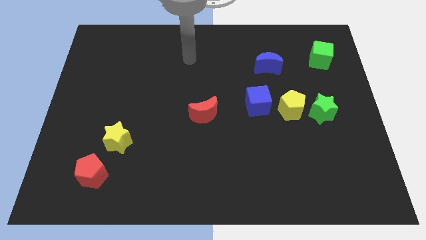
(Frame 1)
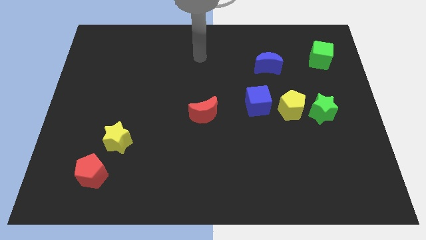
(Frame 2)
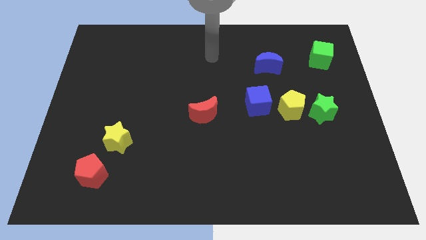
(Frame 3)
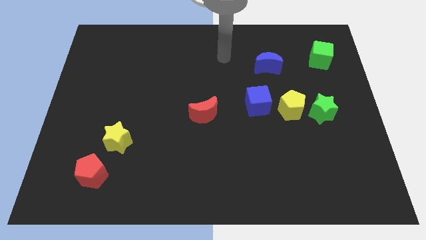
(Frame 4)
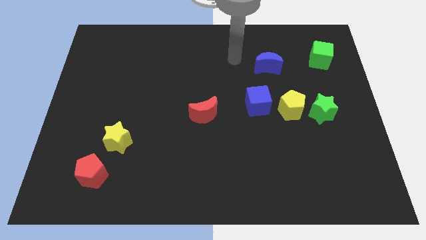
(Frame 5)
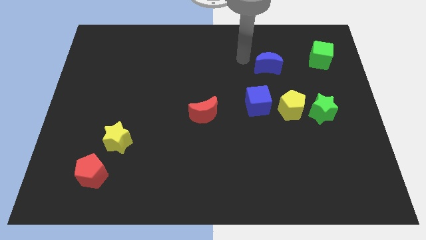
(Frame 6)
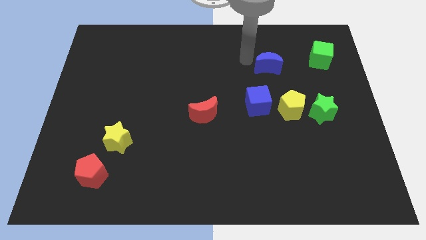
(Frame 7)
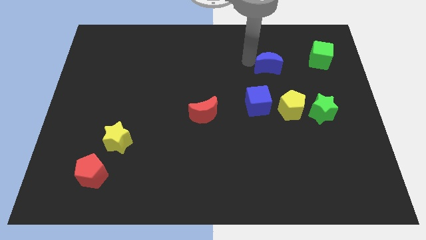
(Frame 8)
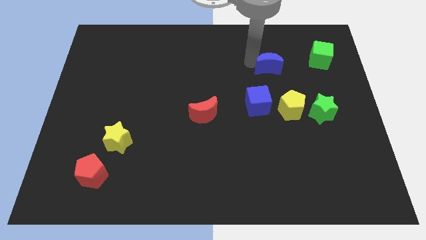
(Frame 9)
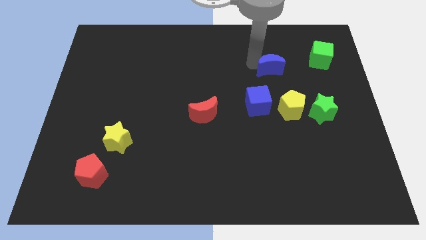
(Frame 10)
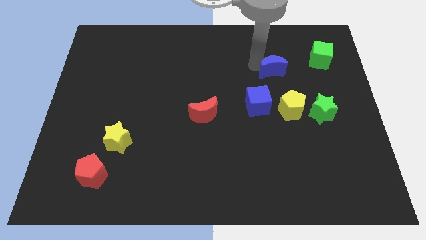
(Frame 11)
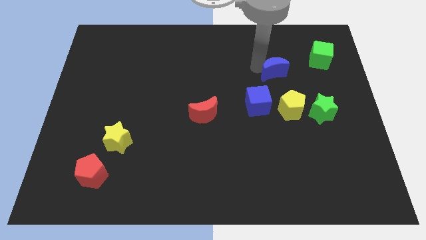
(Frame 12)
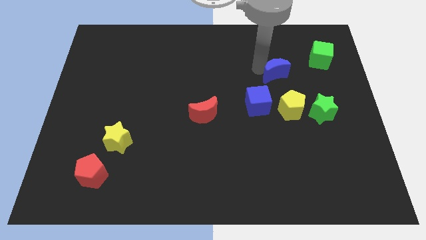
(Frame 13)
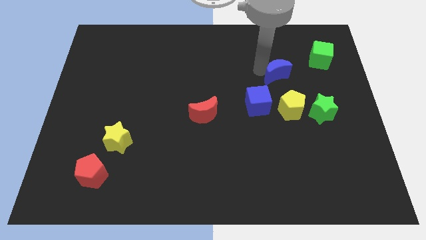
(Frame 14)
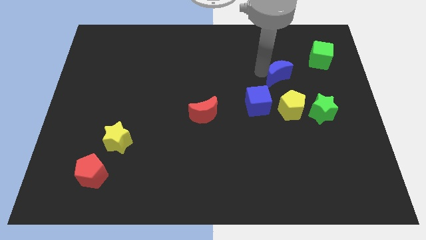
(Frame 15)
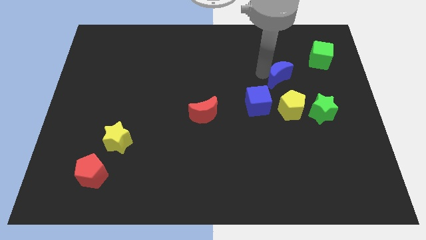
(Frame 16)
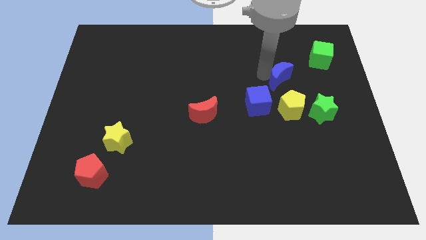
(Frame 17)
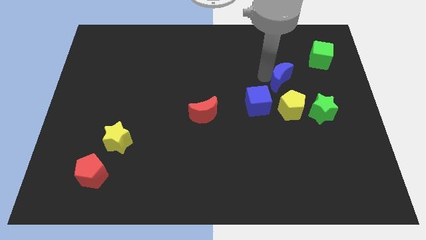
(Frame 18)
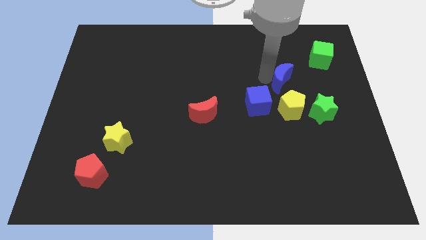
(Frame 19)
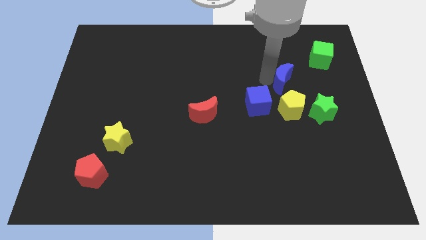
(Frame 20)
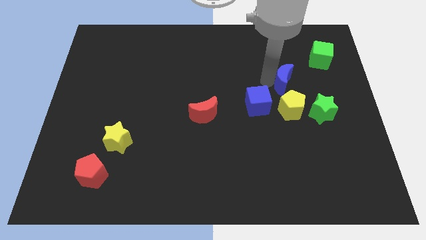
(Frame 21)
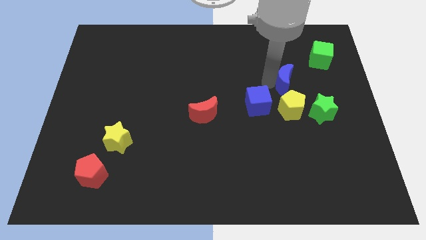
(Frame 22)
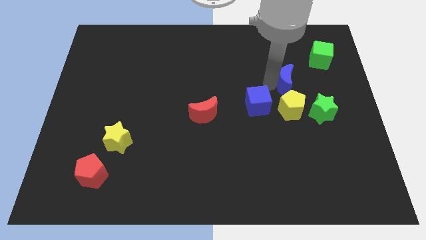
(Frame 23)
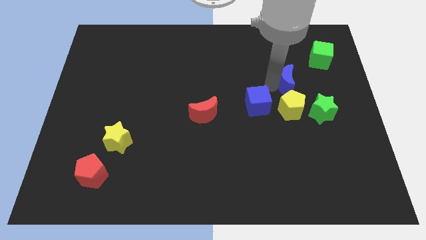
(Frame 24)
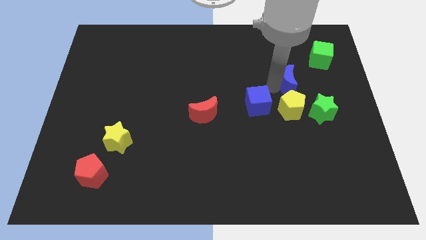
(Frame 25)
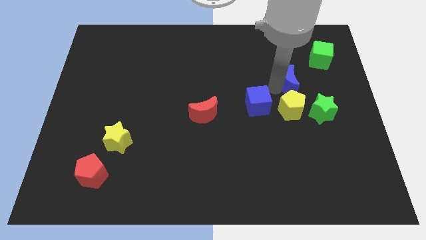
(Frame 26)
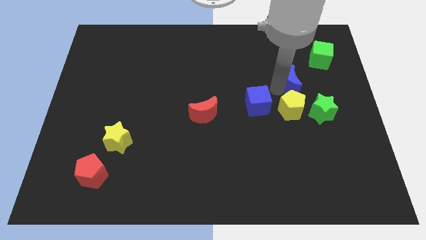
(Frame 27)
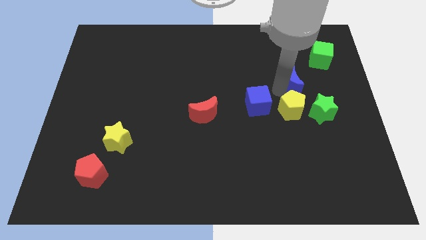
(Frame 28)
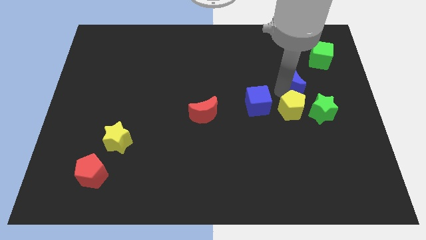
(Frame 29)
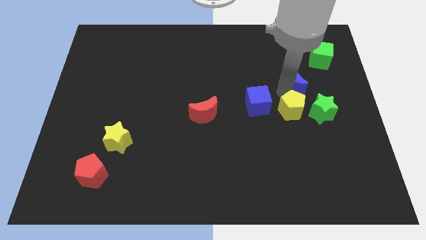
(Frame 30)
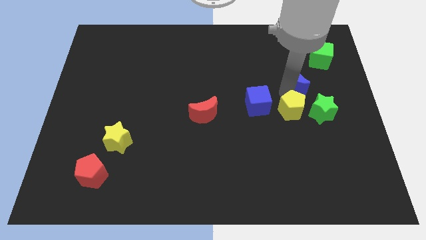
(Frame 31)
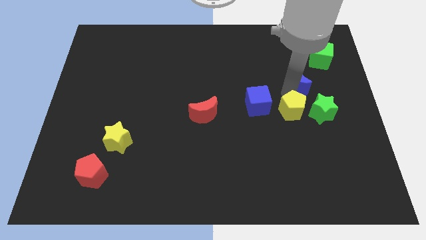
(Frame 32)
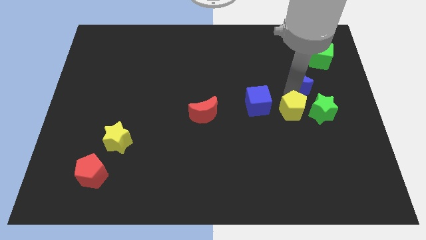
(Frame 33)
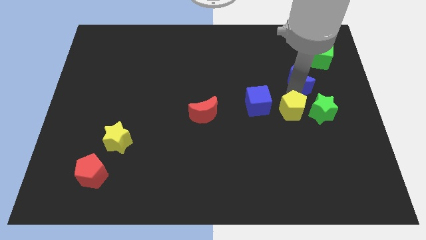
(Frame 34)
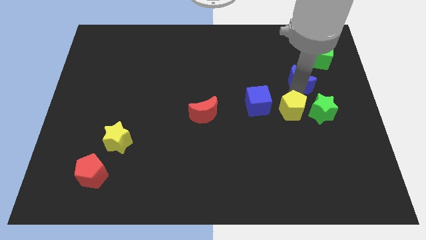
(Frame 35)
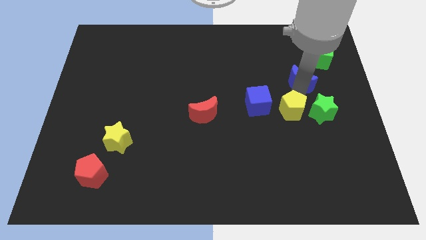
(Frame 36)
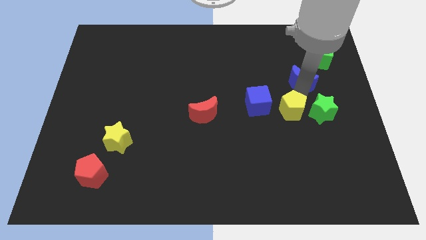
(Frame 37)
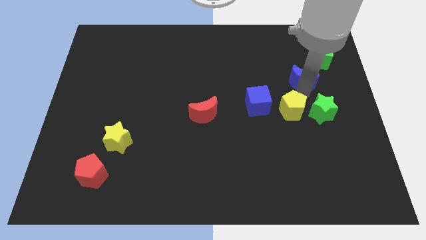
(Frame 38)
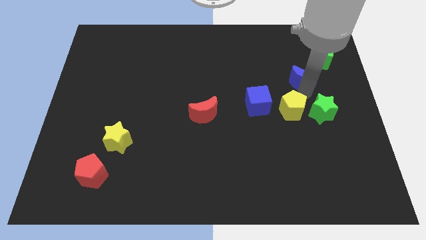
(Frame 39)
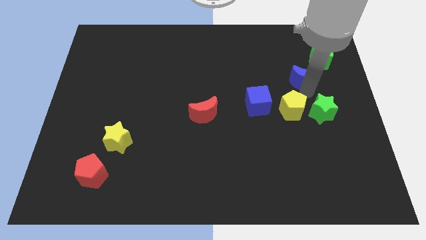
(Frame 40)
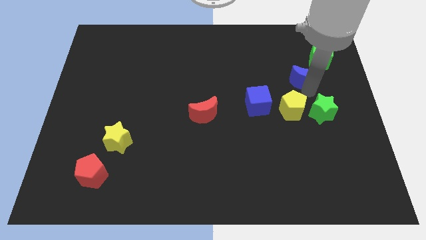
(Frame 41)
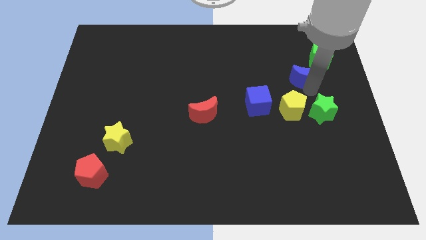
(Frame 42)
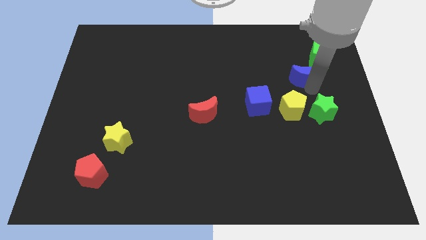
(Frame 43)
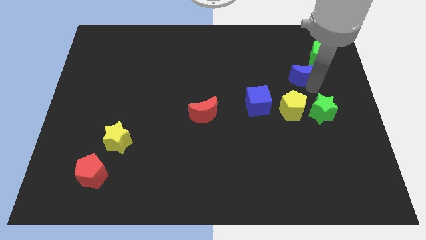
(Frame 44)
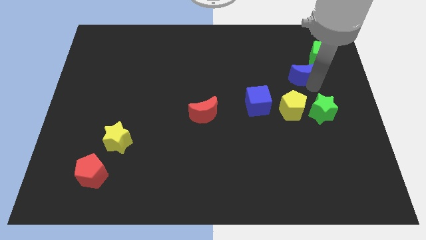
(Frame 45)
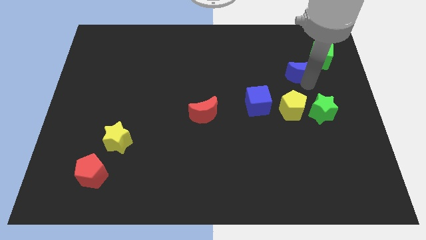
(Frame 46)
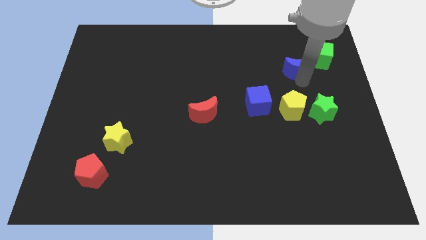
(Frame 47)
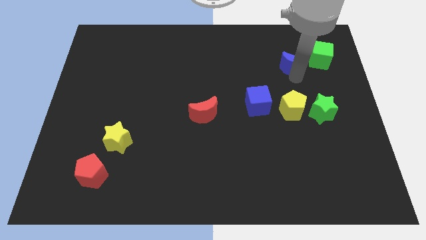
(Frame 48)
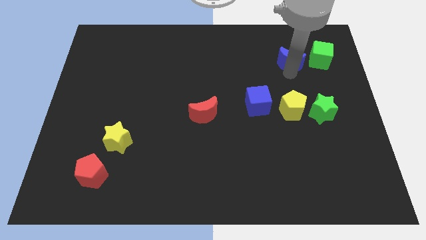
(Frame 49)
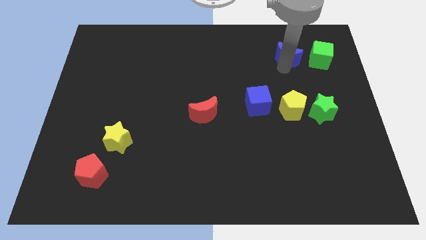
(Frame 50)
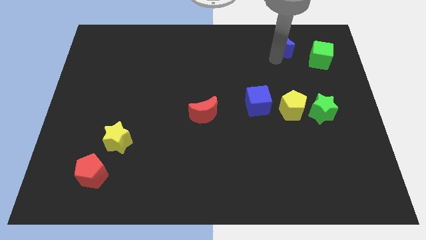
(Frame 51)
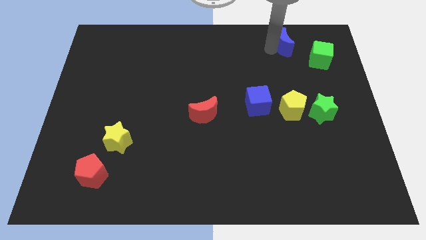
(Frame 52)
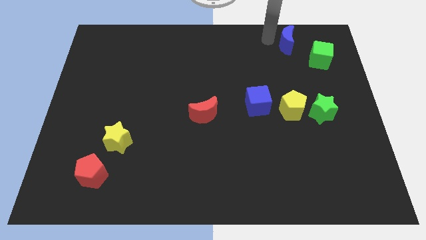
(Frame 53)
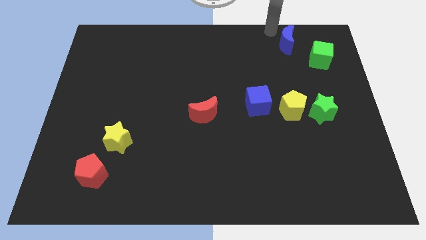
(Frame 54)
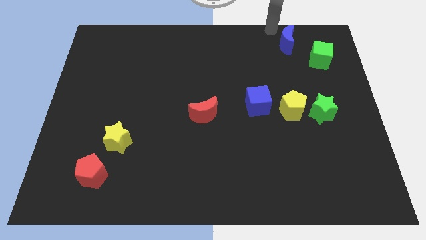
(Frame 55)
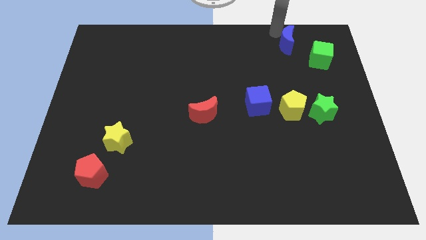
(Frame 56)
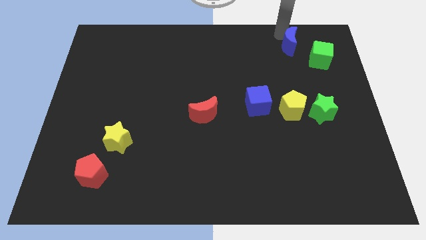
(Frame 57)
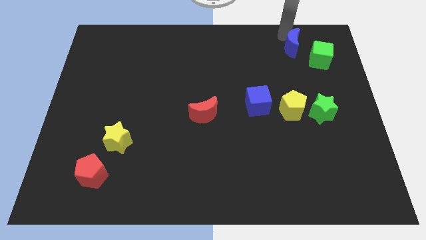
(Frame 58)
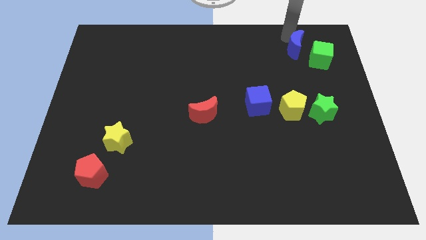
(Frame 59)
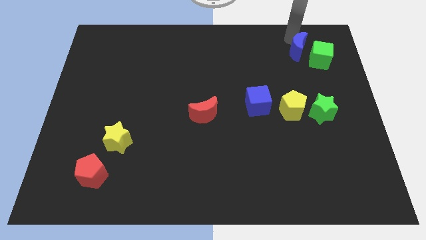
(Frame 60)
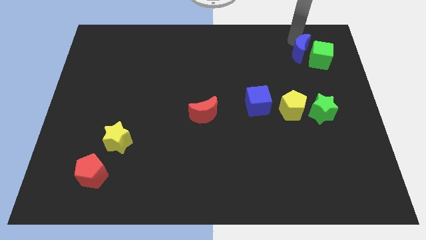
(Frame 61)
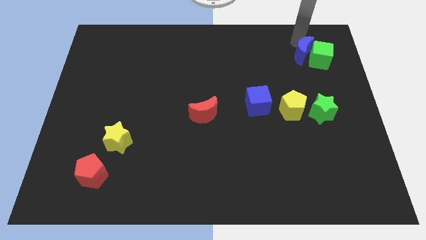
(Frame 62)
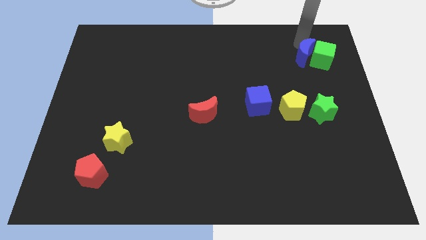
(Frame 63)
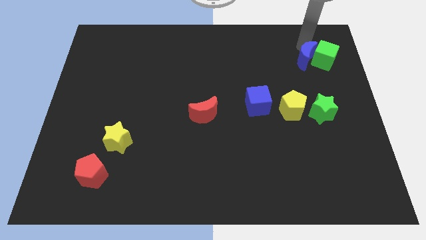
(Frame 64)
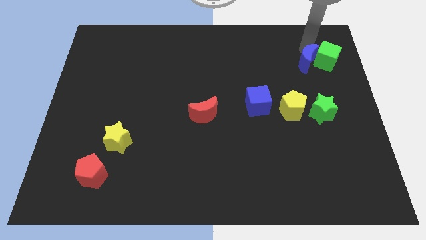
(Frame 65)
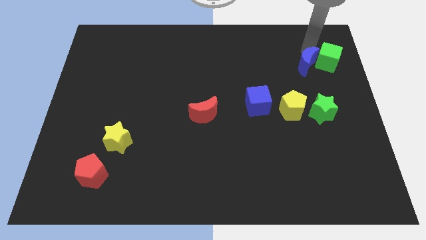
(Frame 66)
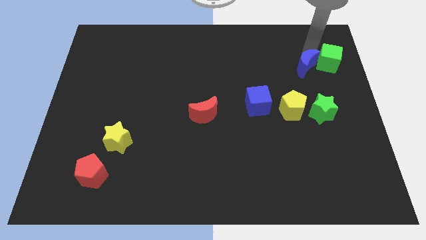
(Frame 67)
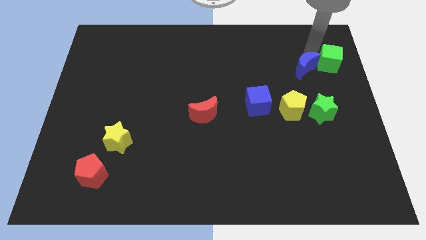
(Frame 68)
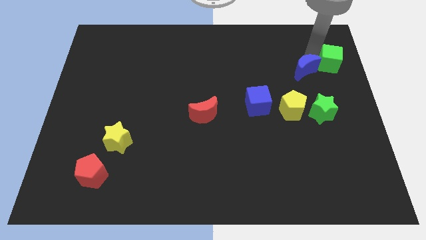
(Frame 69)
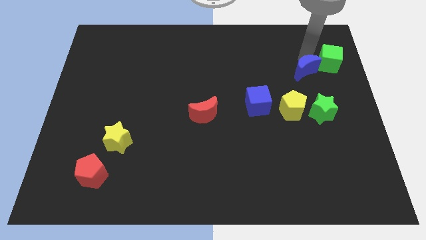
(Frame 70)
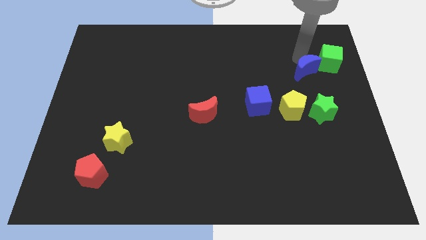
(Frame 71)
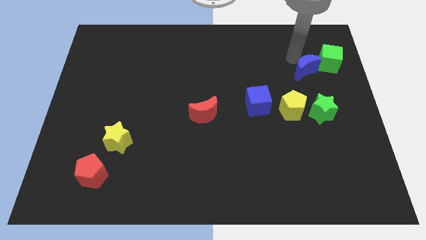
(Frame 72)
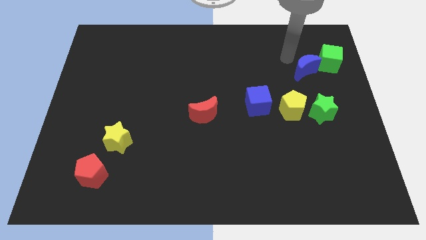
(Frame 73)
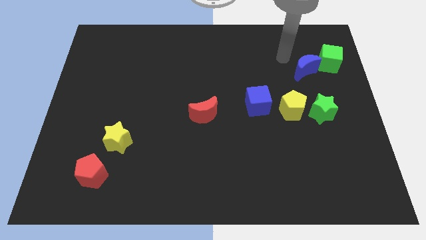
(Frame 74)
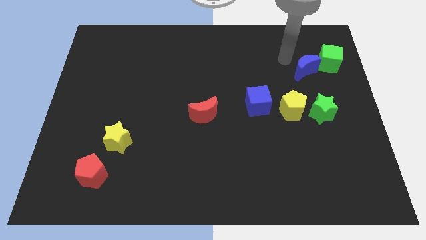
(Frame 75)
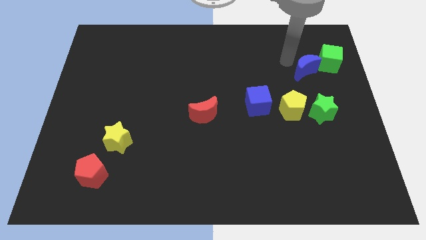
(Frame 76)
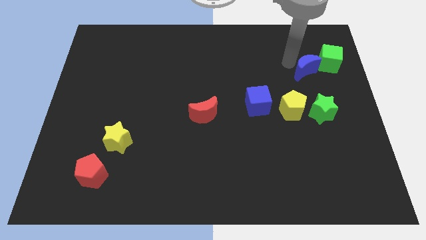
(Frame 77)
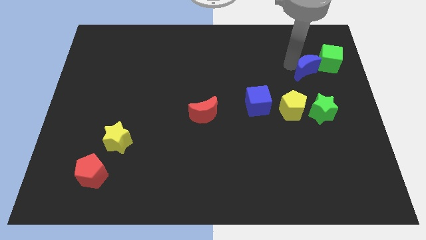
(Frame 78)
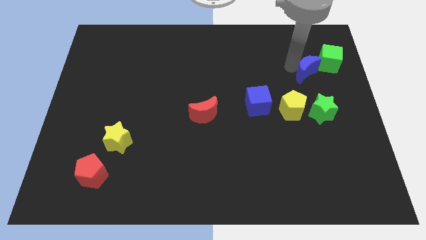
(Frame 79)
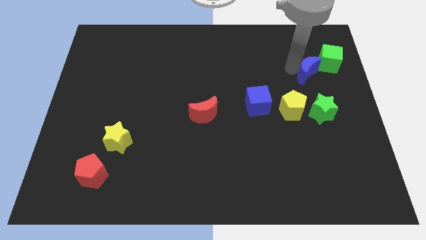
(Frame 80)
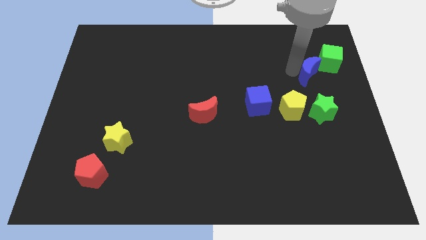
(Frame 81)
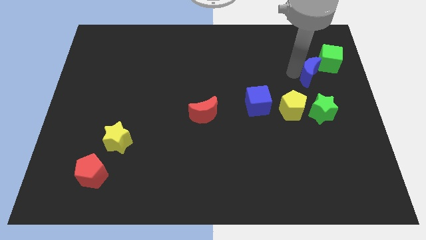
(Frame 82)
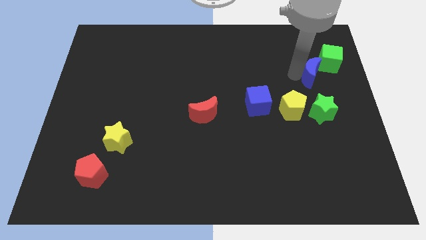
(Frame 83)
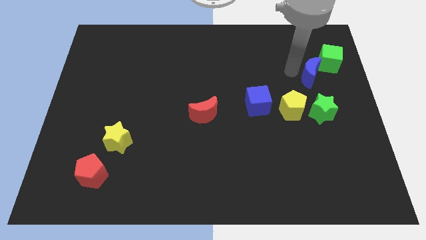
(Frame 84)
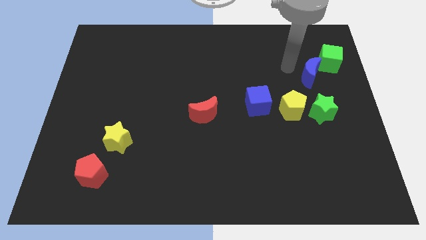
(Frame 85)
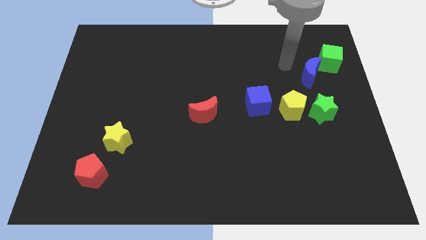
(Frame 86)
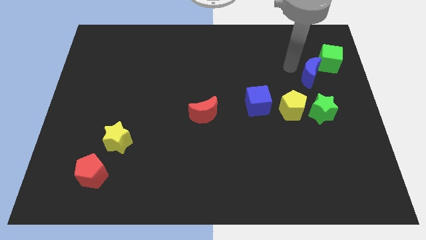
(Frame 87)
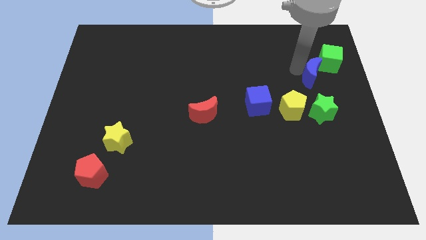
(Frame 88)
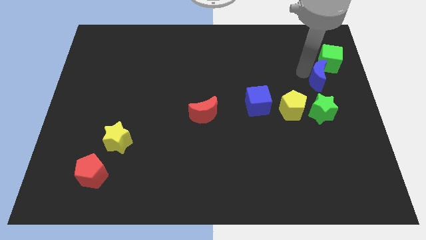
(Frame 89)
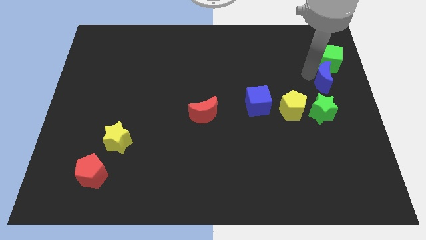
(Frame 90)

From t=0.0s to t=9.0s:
slide the blue moon to the center right

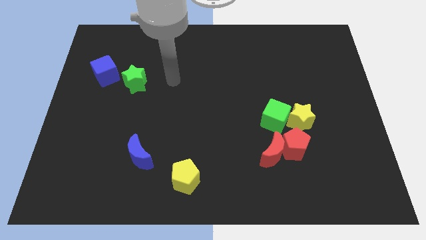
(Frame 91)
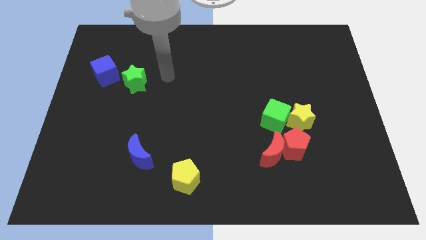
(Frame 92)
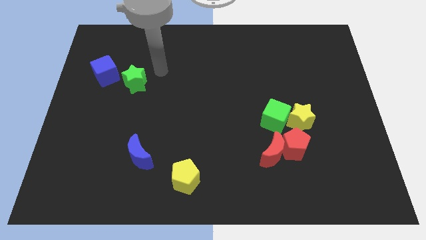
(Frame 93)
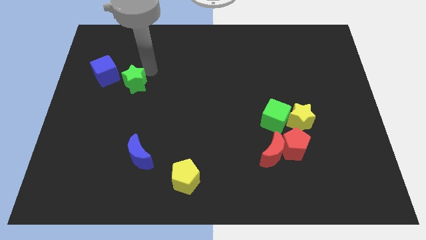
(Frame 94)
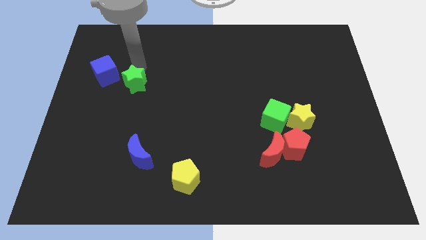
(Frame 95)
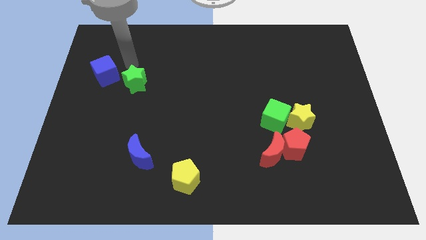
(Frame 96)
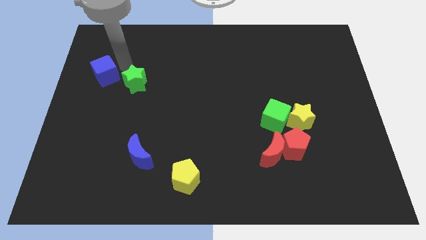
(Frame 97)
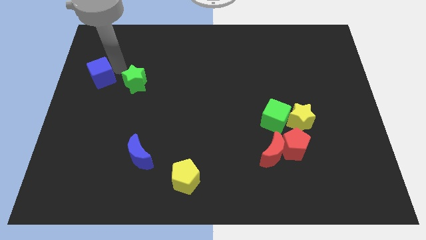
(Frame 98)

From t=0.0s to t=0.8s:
put the blue cube to the left side of the board
